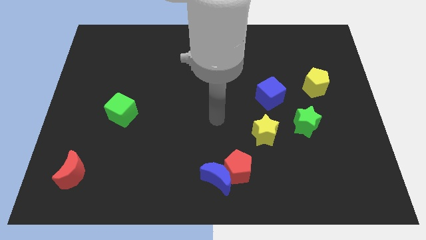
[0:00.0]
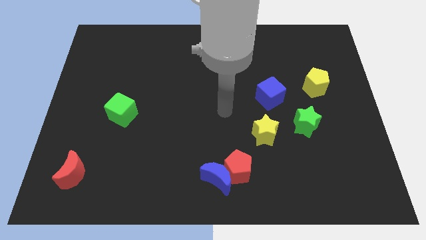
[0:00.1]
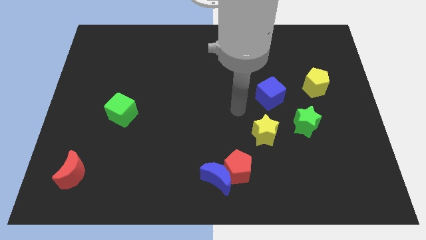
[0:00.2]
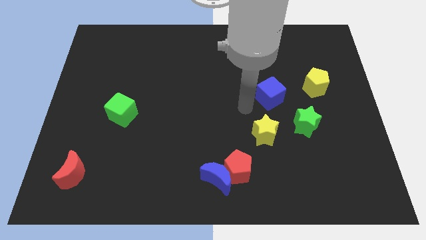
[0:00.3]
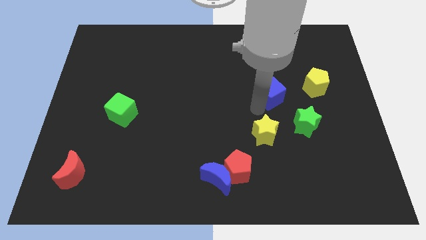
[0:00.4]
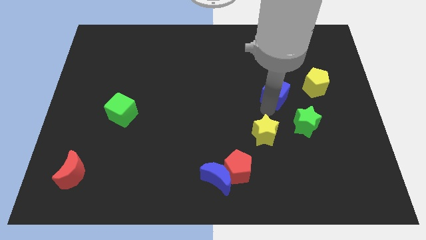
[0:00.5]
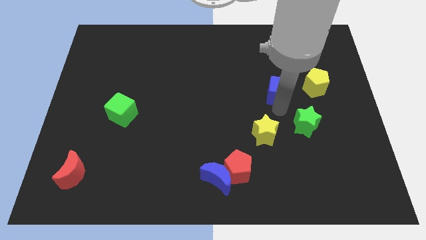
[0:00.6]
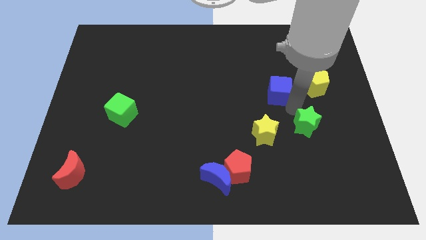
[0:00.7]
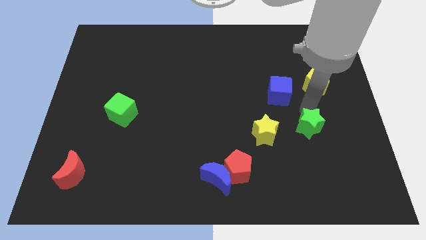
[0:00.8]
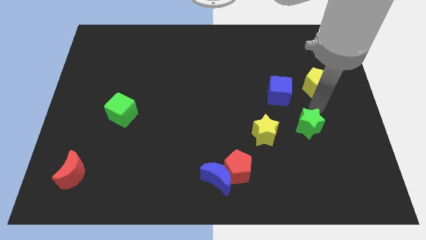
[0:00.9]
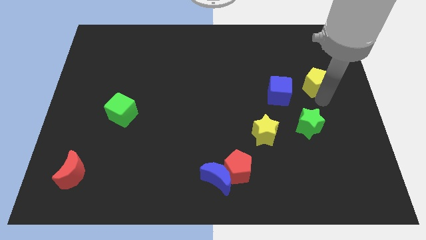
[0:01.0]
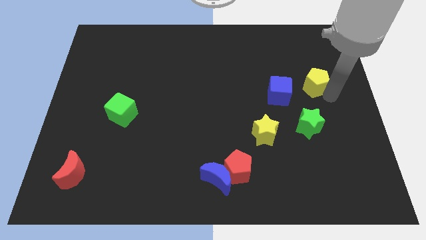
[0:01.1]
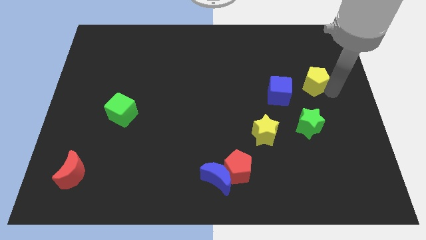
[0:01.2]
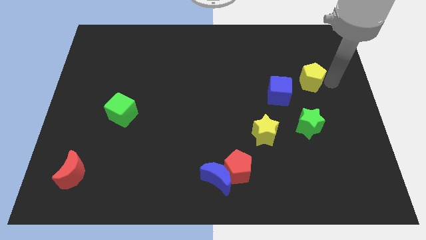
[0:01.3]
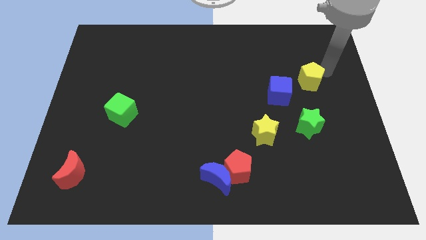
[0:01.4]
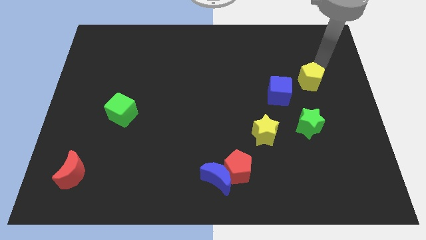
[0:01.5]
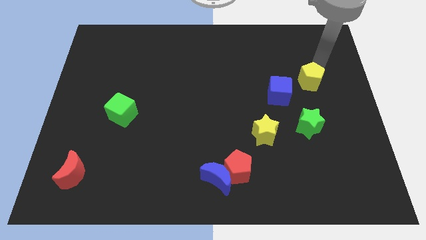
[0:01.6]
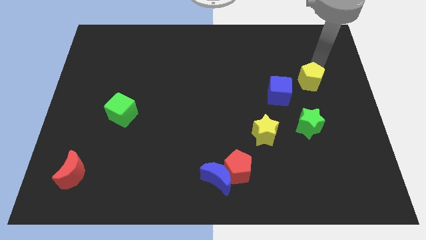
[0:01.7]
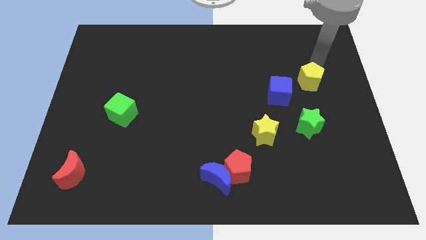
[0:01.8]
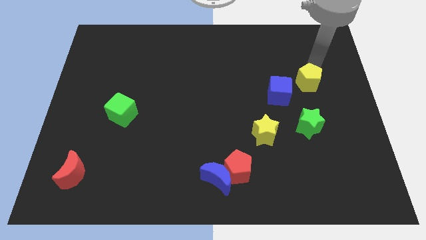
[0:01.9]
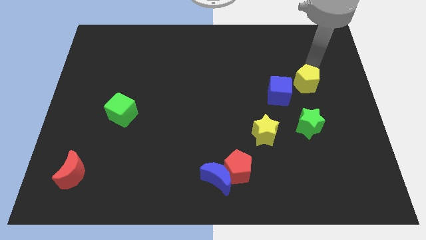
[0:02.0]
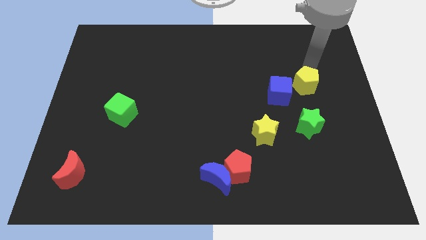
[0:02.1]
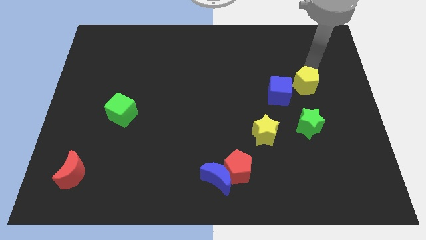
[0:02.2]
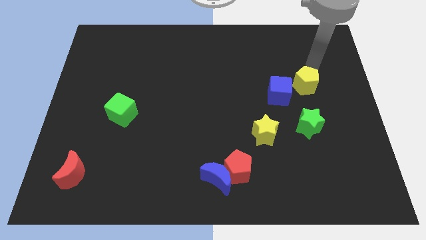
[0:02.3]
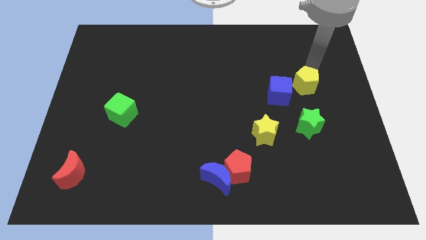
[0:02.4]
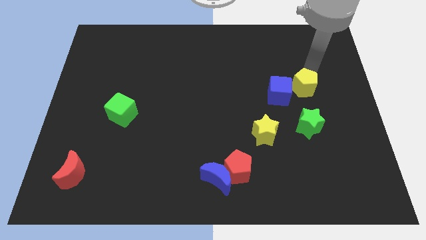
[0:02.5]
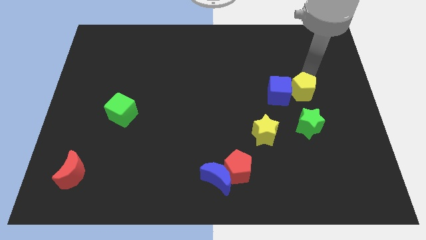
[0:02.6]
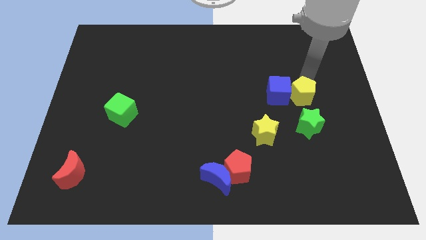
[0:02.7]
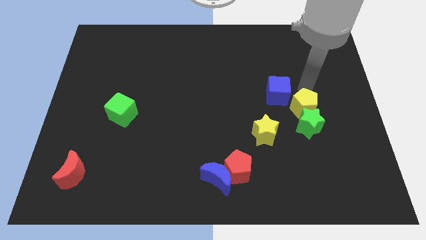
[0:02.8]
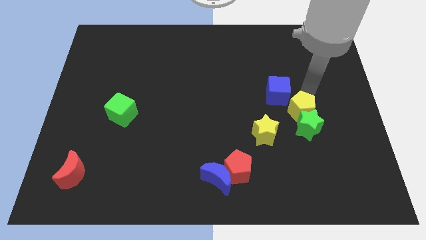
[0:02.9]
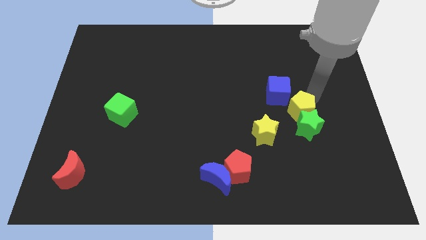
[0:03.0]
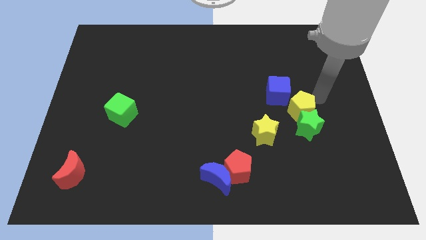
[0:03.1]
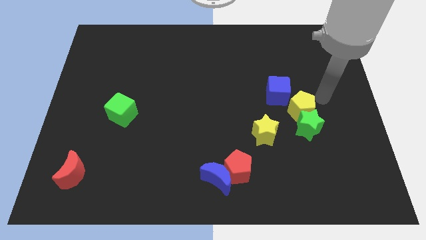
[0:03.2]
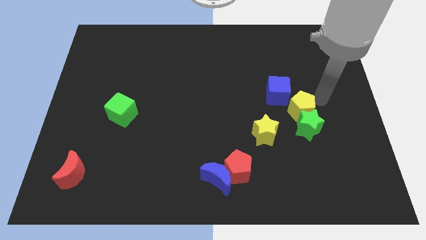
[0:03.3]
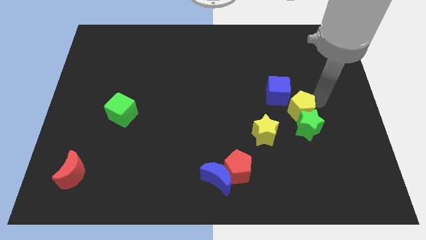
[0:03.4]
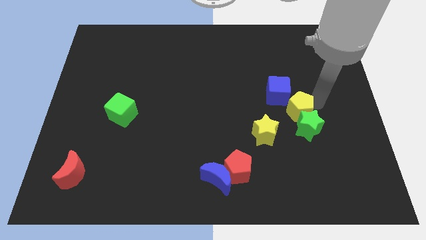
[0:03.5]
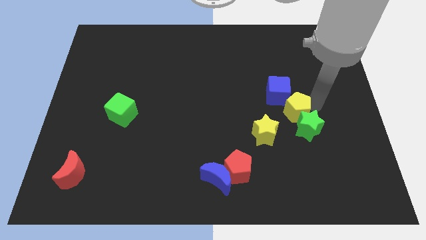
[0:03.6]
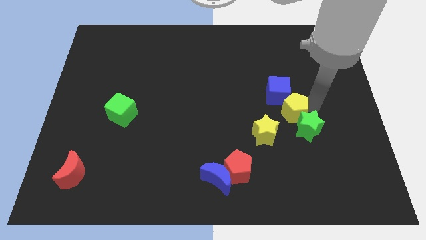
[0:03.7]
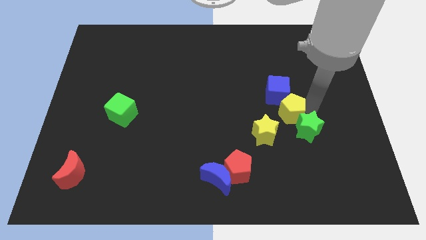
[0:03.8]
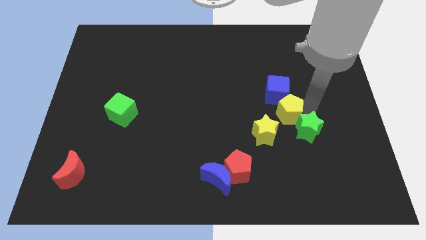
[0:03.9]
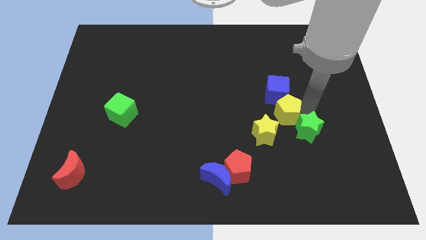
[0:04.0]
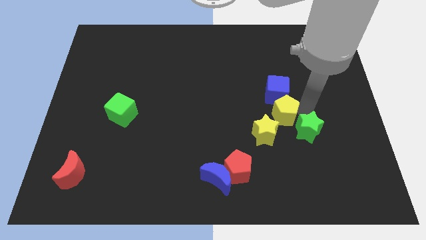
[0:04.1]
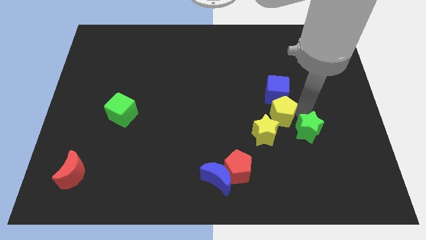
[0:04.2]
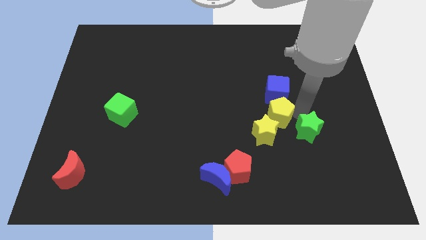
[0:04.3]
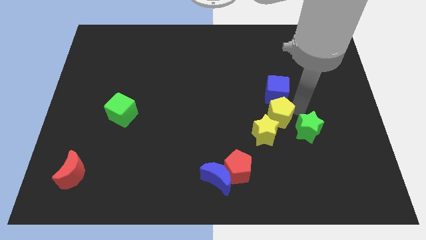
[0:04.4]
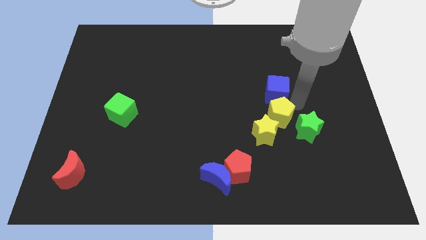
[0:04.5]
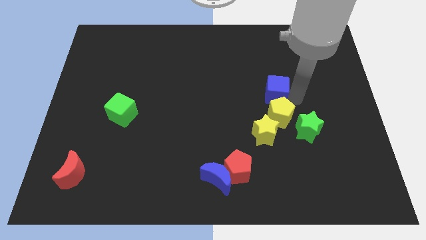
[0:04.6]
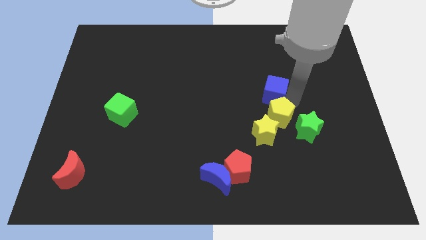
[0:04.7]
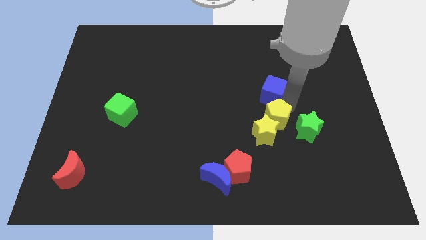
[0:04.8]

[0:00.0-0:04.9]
move the yellow pentagon close to the yellow star

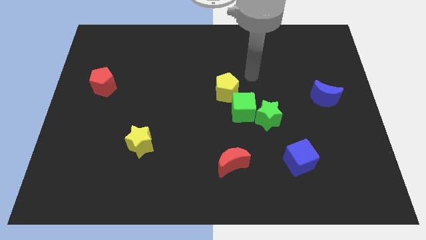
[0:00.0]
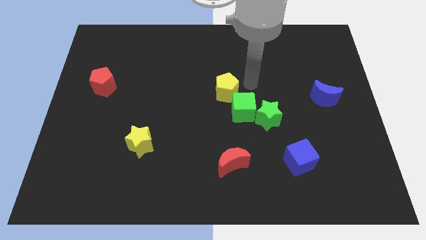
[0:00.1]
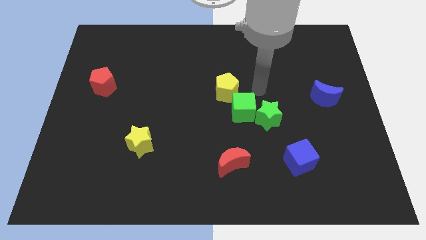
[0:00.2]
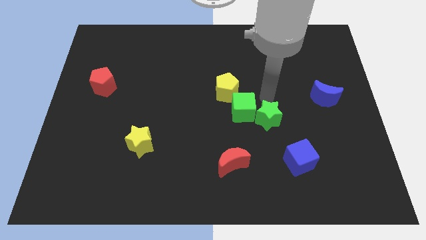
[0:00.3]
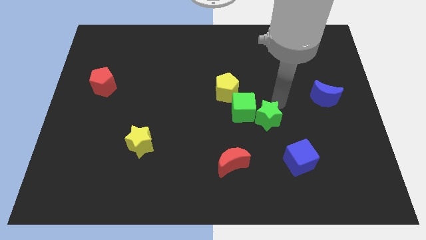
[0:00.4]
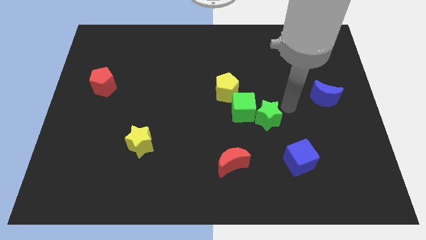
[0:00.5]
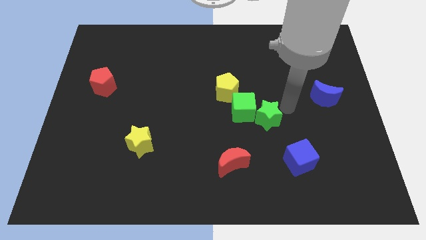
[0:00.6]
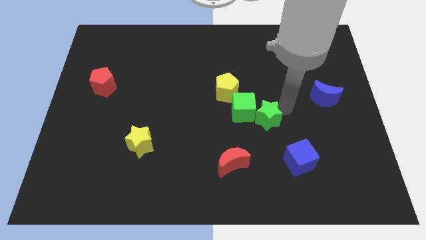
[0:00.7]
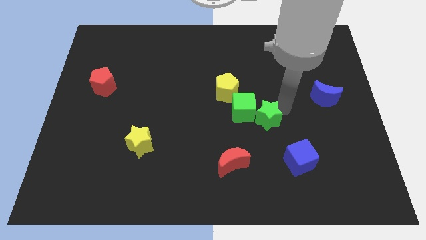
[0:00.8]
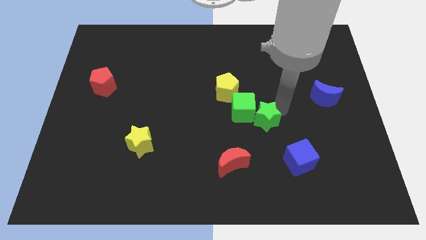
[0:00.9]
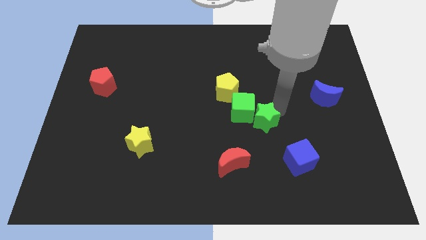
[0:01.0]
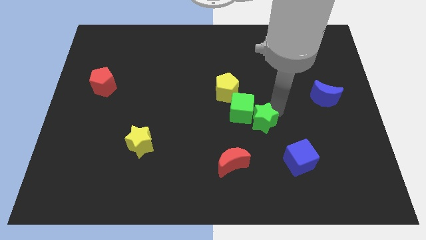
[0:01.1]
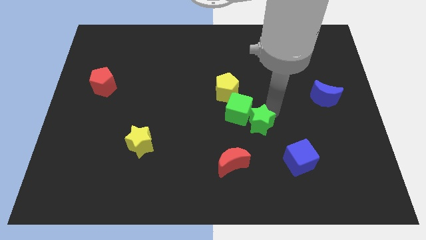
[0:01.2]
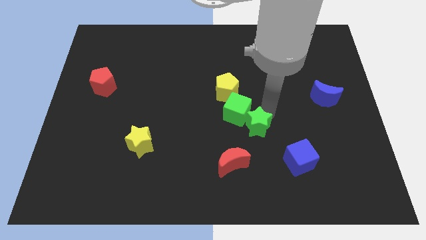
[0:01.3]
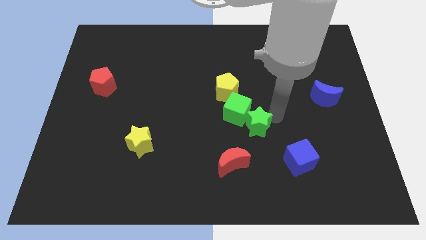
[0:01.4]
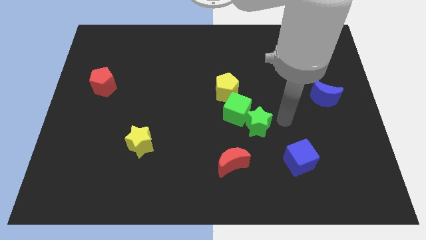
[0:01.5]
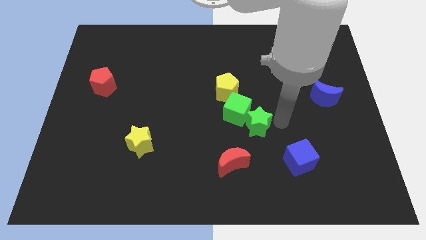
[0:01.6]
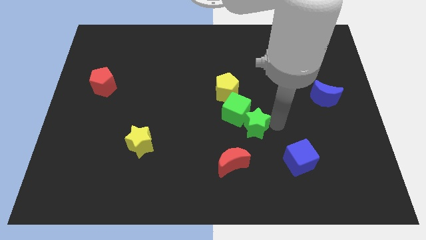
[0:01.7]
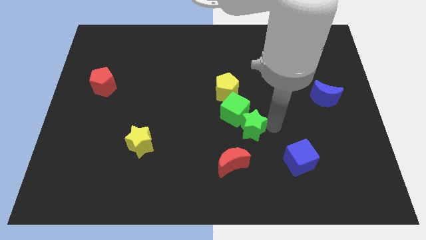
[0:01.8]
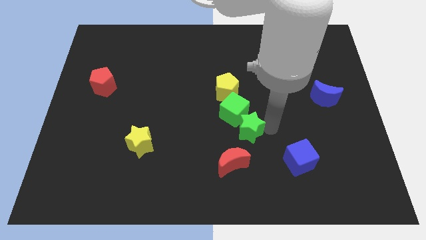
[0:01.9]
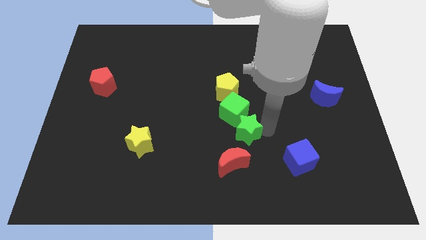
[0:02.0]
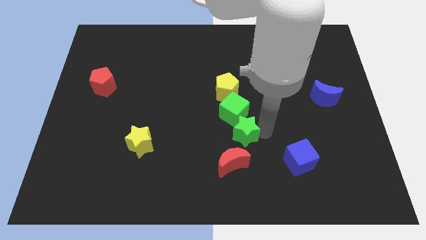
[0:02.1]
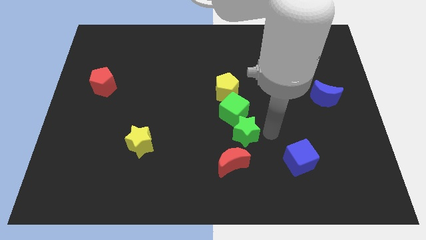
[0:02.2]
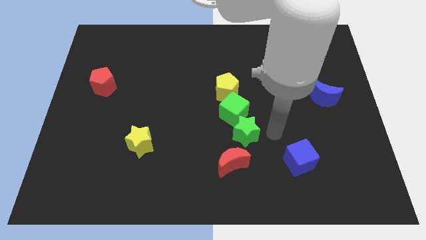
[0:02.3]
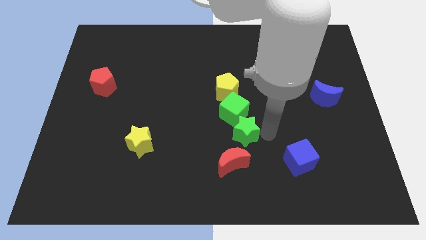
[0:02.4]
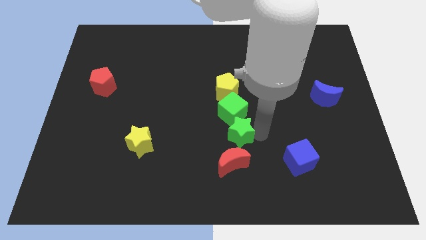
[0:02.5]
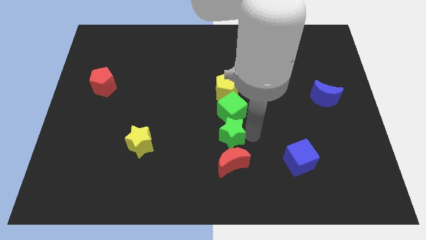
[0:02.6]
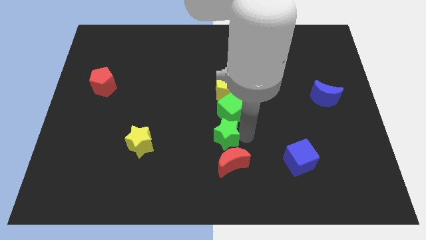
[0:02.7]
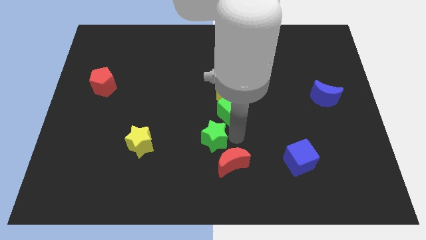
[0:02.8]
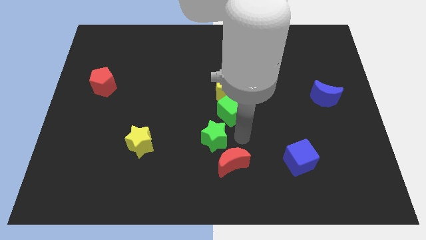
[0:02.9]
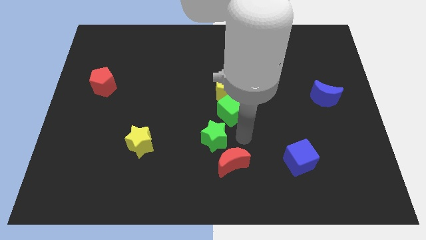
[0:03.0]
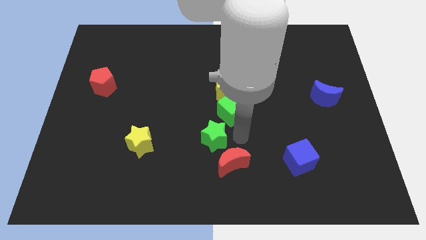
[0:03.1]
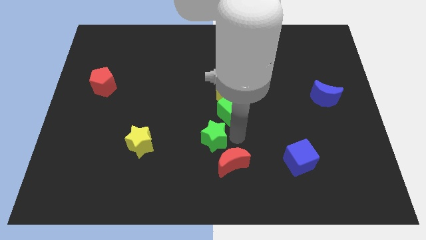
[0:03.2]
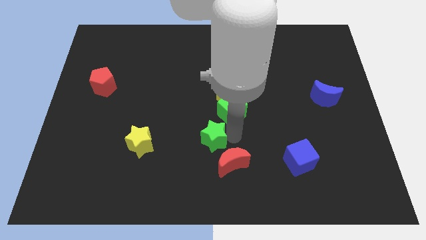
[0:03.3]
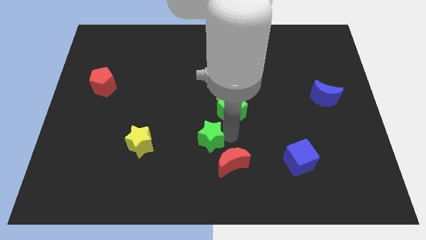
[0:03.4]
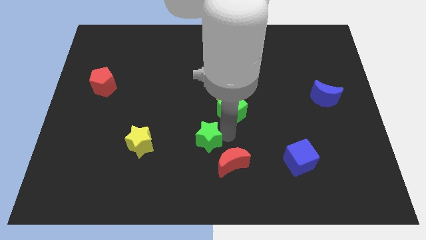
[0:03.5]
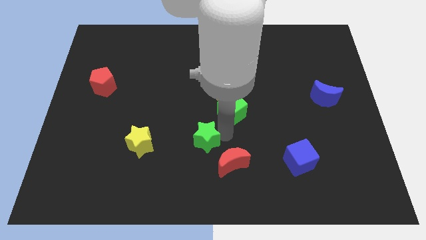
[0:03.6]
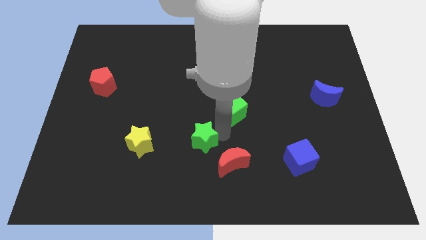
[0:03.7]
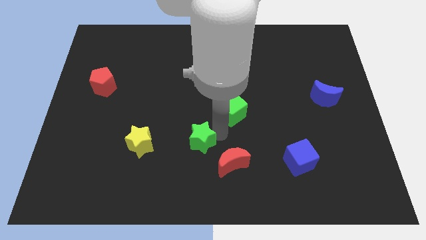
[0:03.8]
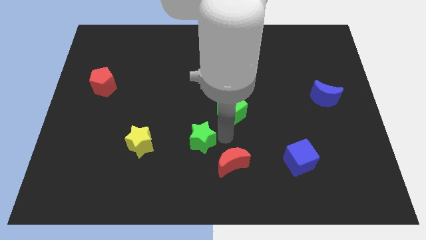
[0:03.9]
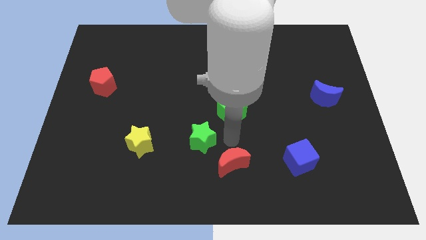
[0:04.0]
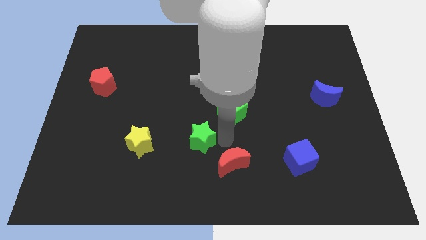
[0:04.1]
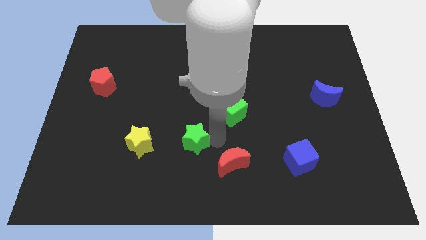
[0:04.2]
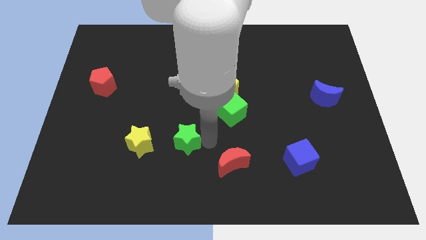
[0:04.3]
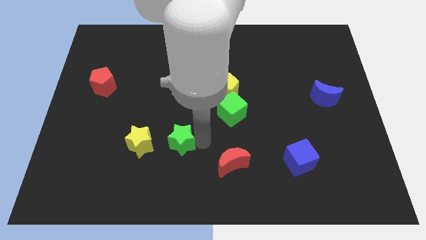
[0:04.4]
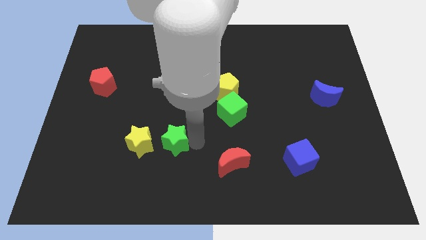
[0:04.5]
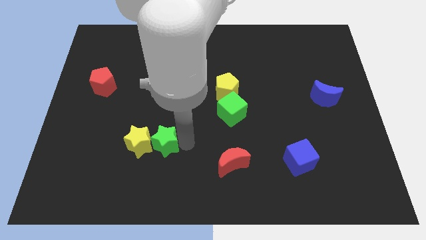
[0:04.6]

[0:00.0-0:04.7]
push the green star close to the yellow star
